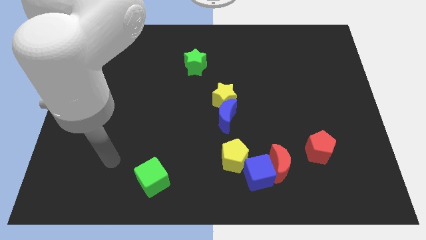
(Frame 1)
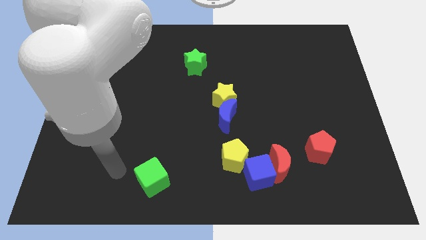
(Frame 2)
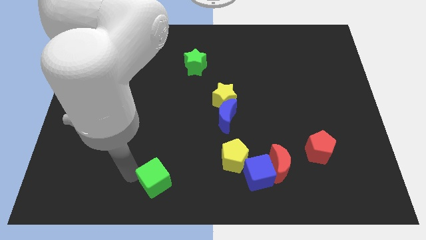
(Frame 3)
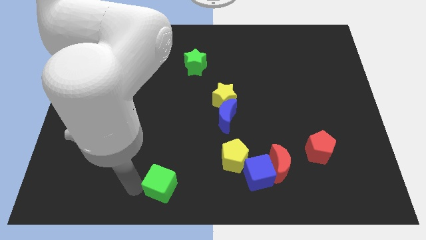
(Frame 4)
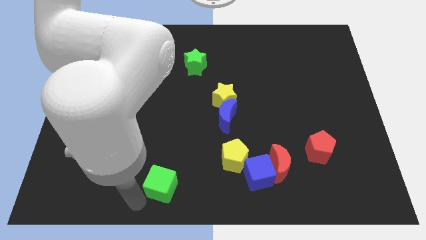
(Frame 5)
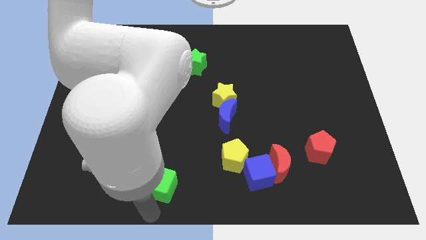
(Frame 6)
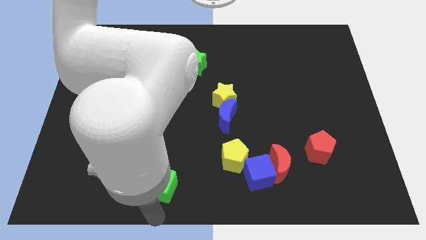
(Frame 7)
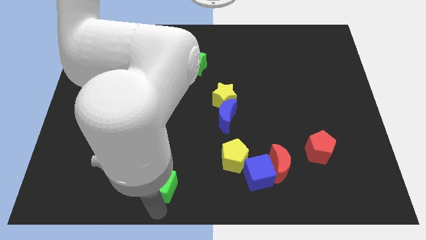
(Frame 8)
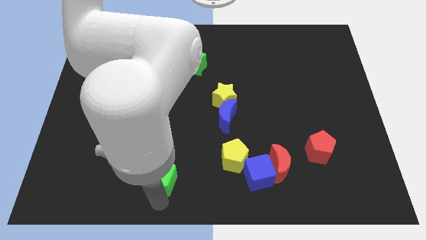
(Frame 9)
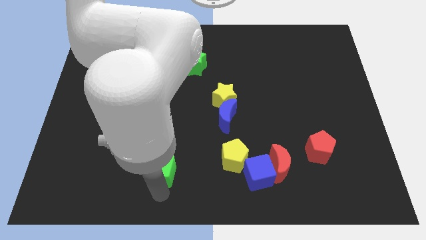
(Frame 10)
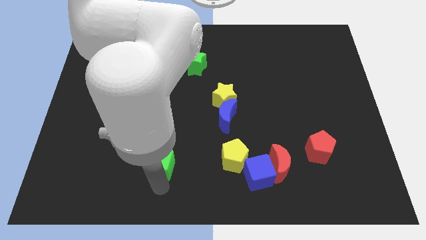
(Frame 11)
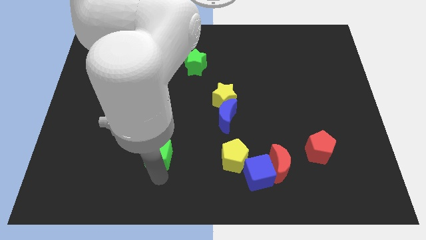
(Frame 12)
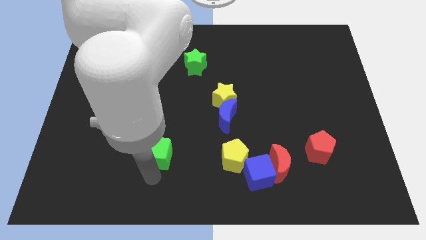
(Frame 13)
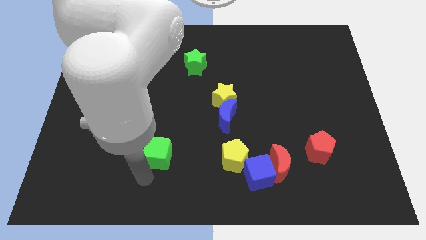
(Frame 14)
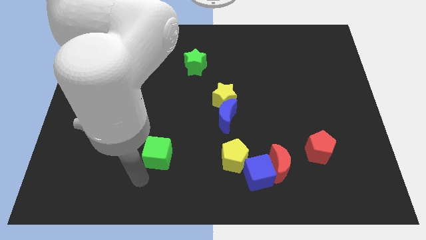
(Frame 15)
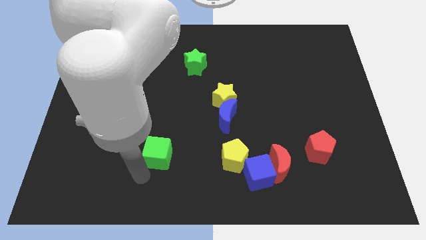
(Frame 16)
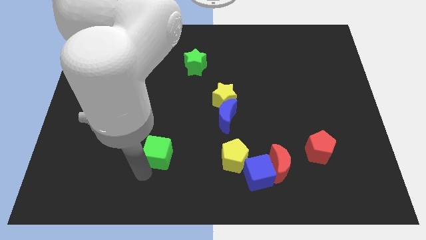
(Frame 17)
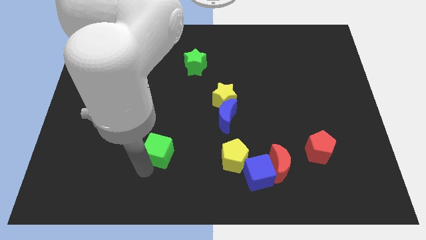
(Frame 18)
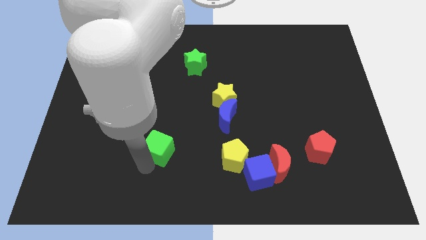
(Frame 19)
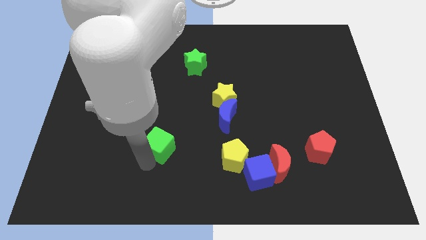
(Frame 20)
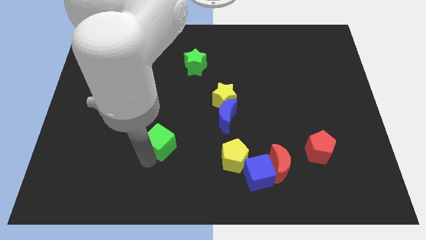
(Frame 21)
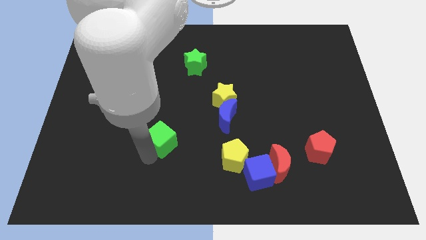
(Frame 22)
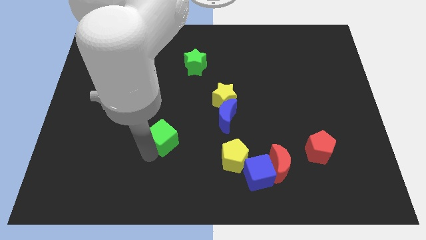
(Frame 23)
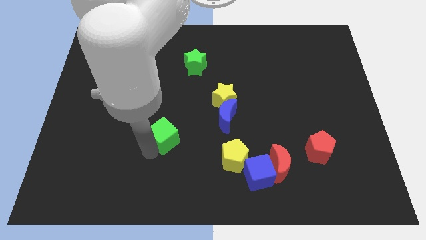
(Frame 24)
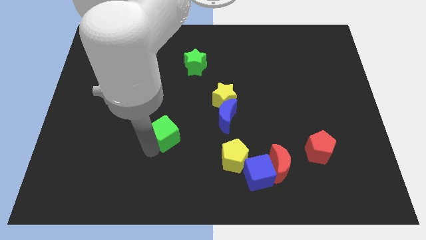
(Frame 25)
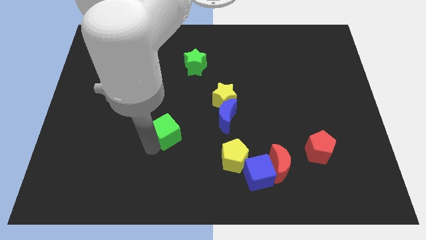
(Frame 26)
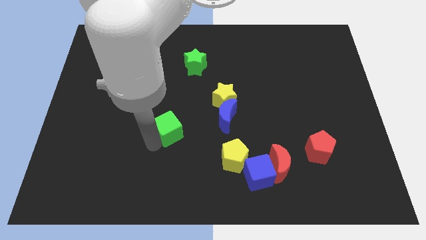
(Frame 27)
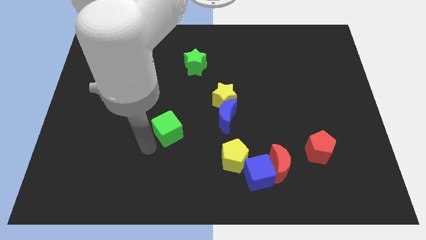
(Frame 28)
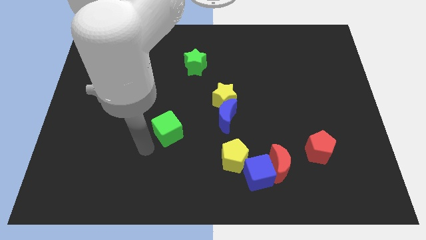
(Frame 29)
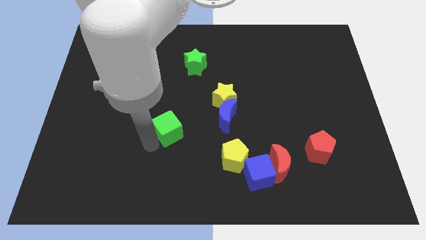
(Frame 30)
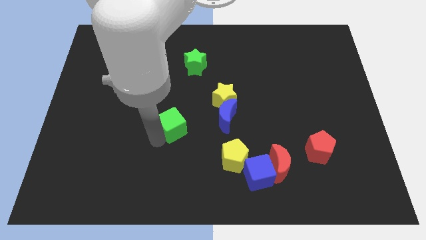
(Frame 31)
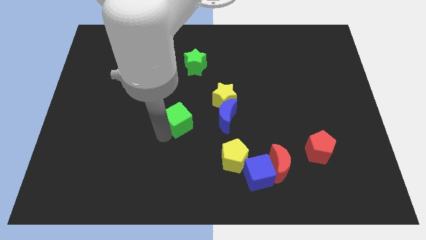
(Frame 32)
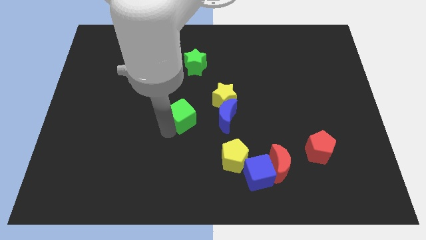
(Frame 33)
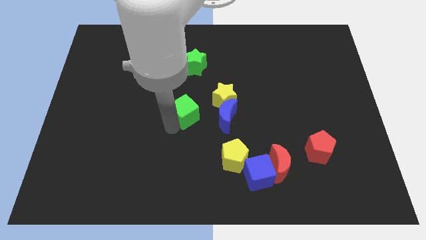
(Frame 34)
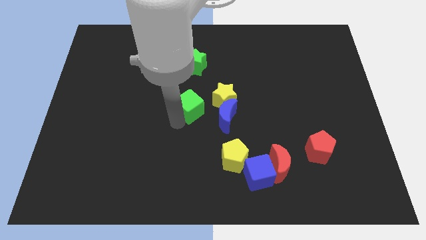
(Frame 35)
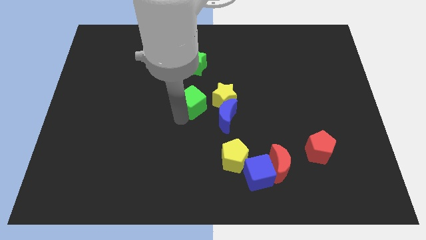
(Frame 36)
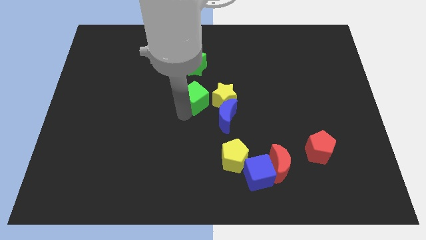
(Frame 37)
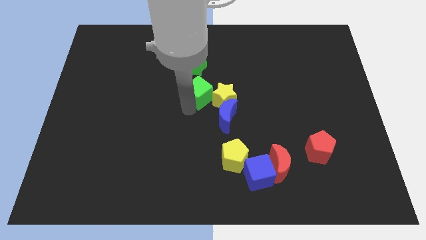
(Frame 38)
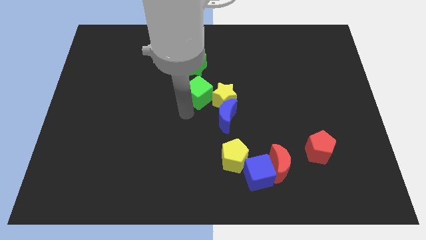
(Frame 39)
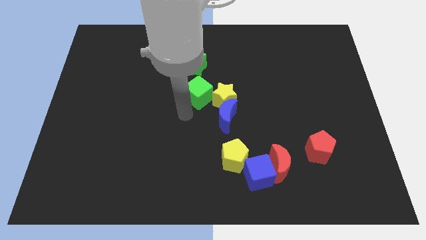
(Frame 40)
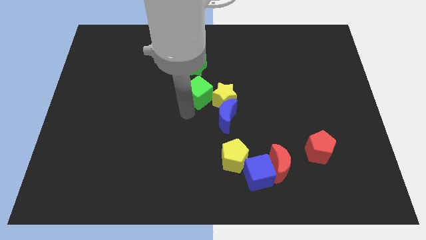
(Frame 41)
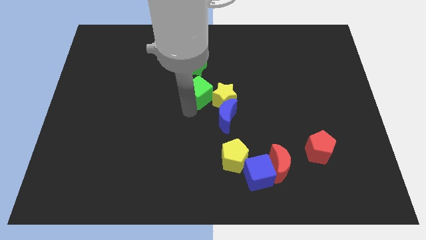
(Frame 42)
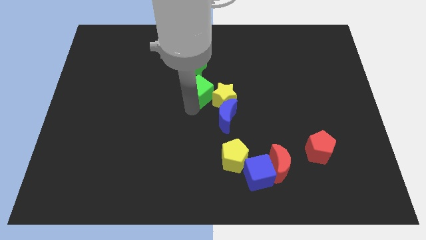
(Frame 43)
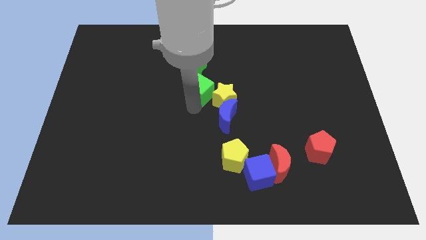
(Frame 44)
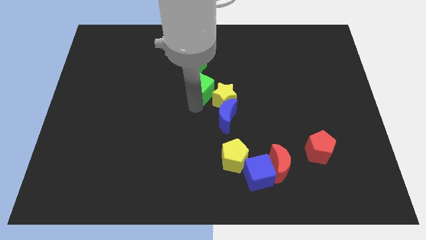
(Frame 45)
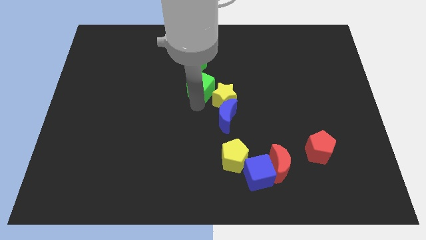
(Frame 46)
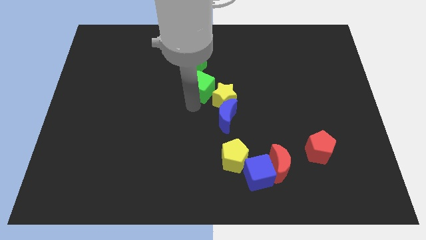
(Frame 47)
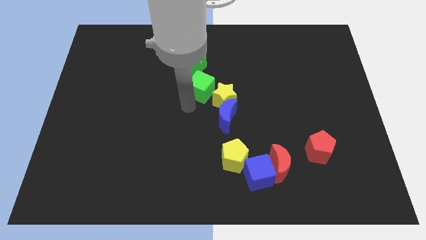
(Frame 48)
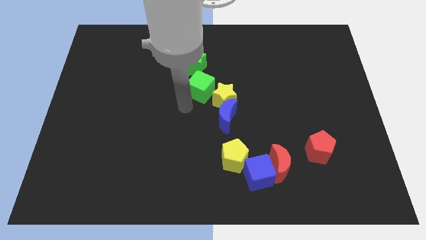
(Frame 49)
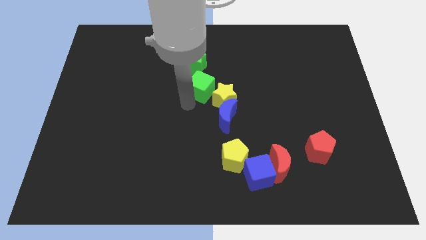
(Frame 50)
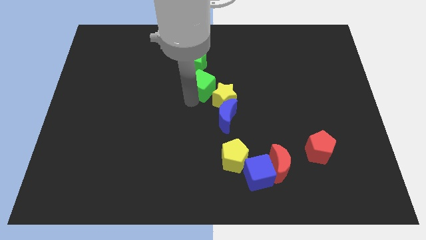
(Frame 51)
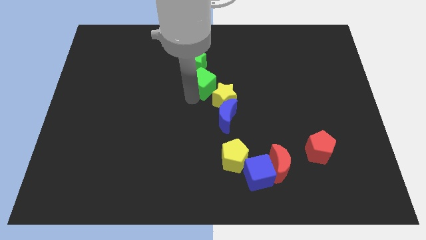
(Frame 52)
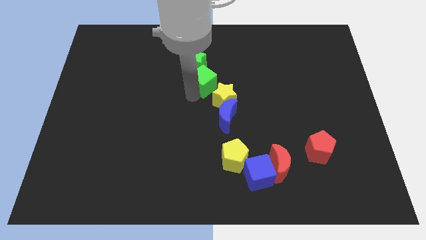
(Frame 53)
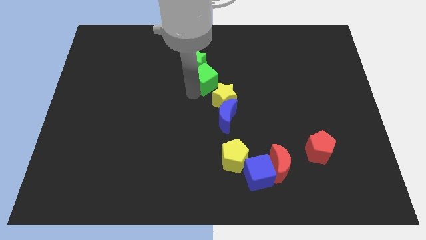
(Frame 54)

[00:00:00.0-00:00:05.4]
slide the green cube above the blue moon
